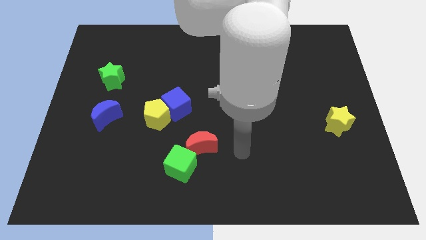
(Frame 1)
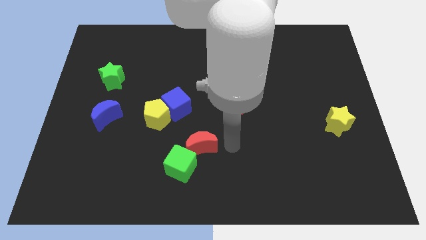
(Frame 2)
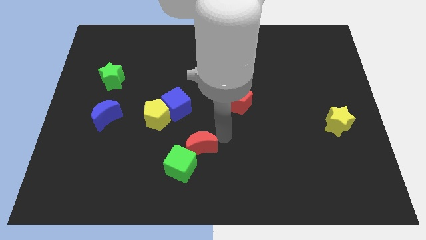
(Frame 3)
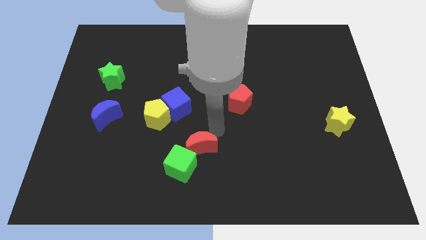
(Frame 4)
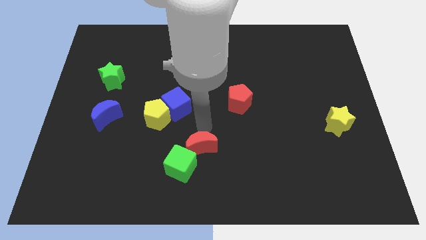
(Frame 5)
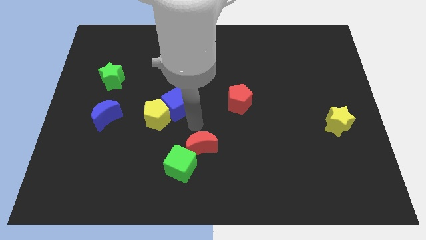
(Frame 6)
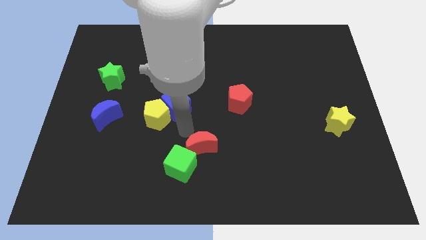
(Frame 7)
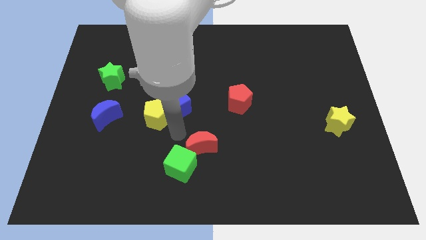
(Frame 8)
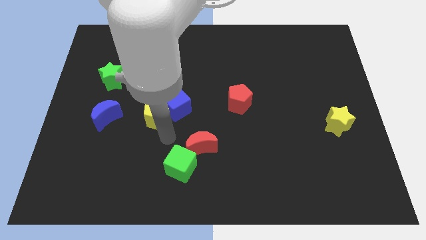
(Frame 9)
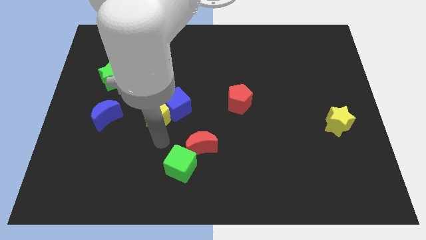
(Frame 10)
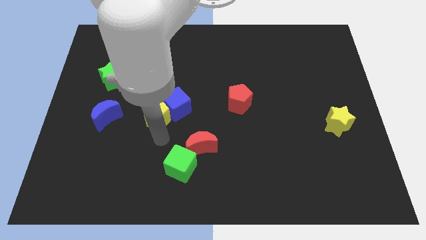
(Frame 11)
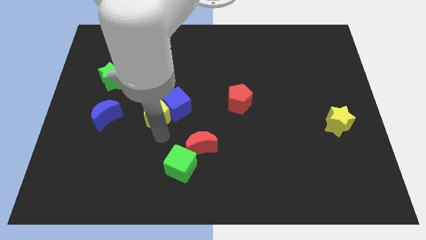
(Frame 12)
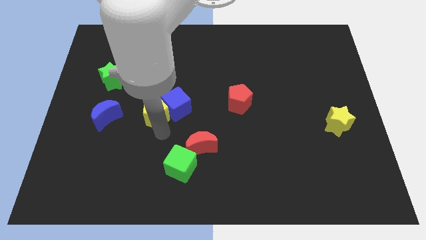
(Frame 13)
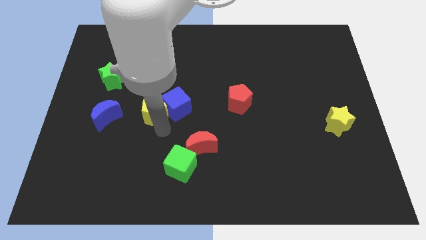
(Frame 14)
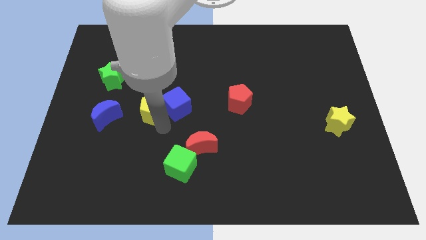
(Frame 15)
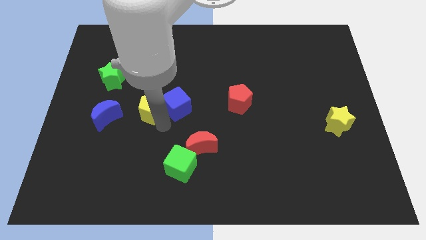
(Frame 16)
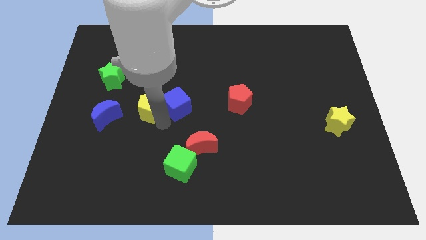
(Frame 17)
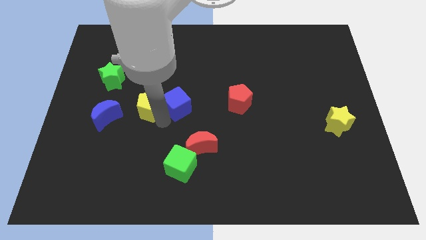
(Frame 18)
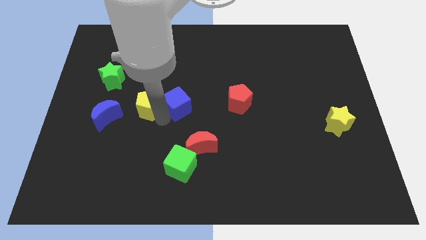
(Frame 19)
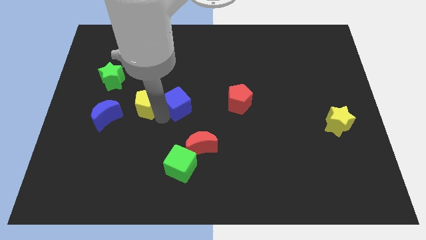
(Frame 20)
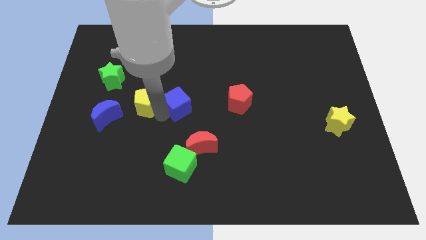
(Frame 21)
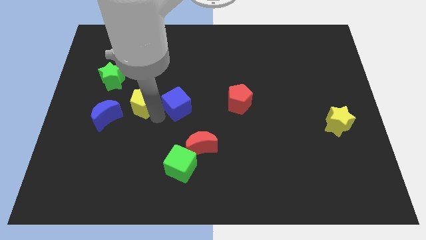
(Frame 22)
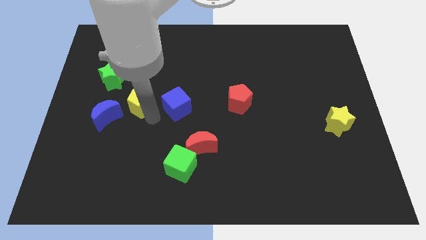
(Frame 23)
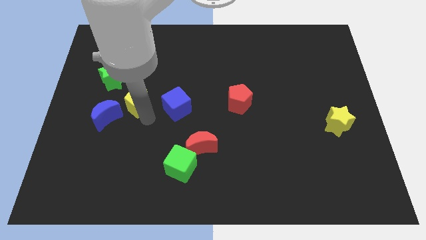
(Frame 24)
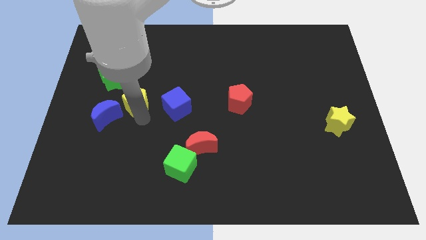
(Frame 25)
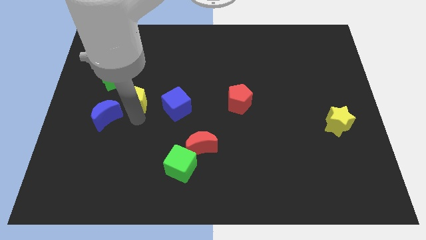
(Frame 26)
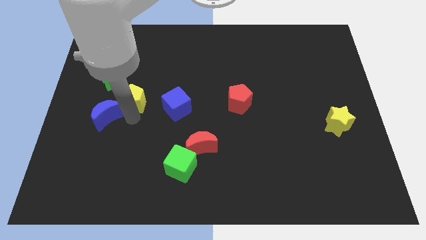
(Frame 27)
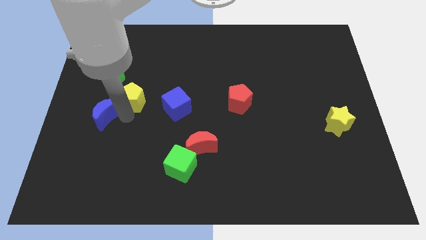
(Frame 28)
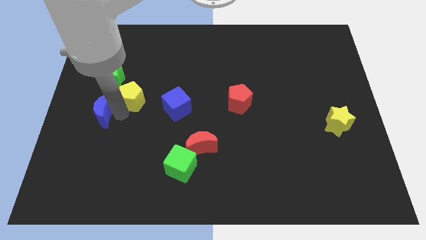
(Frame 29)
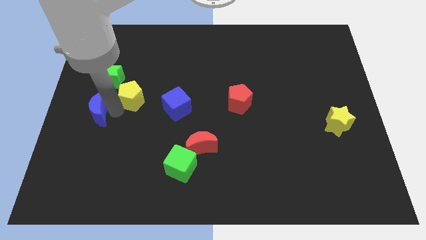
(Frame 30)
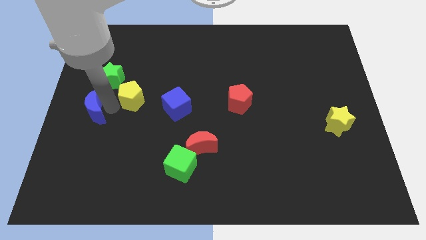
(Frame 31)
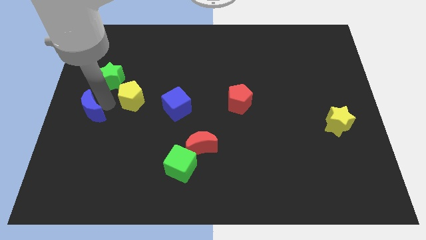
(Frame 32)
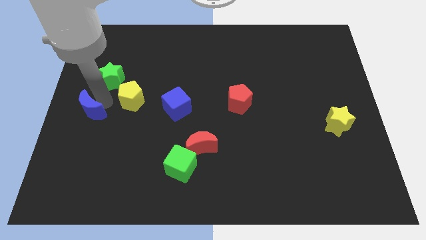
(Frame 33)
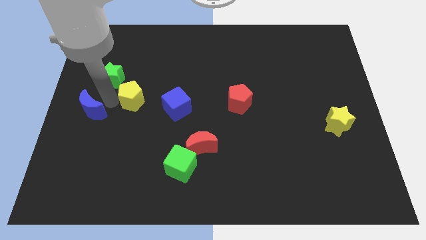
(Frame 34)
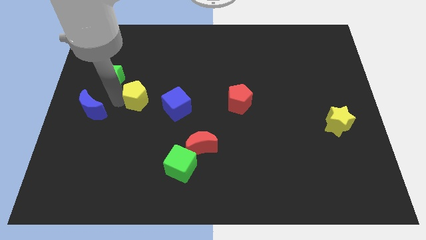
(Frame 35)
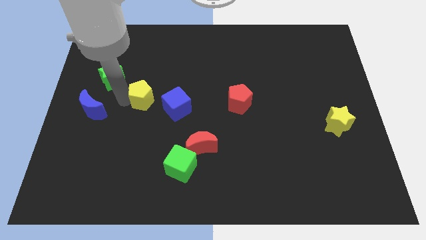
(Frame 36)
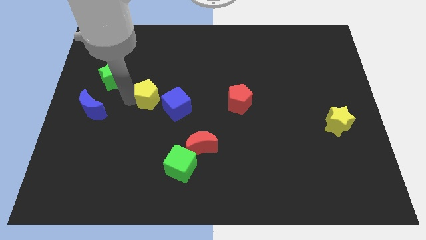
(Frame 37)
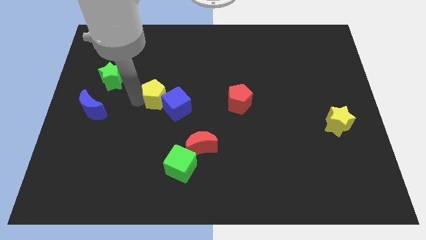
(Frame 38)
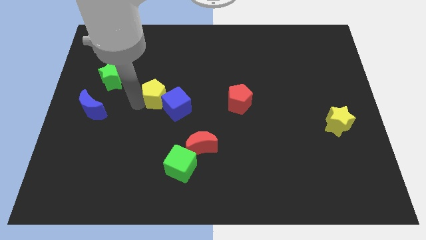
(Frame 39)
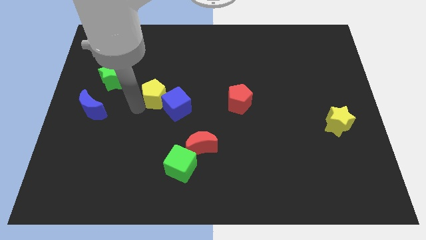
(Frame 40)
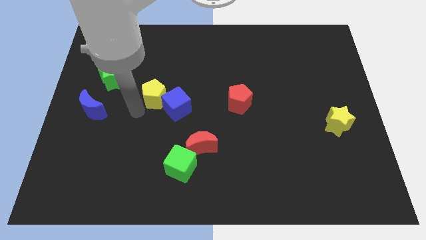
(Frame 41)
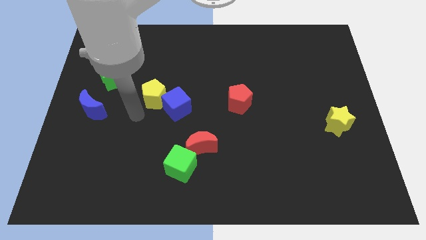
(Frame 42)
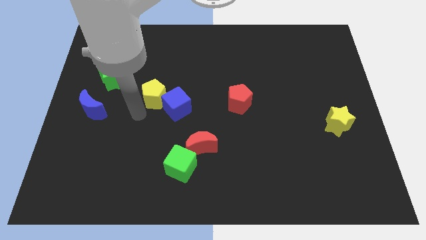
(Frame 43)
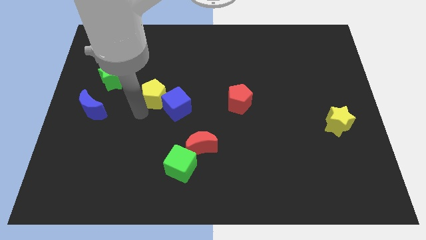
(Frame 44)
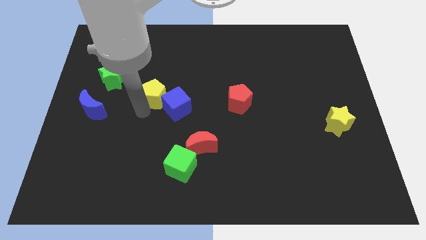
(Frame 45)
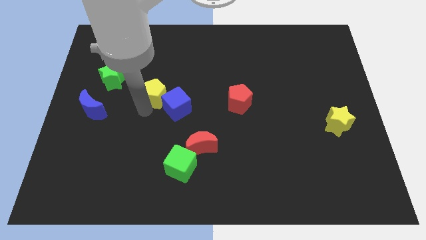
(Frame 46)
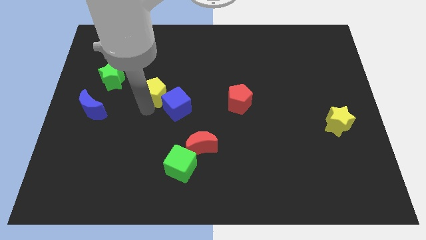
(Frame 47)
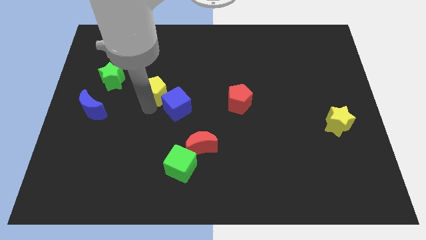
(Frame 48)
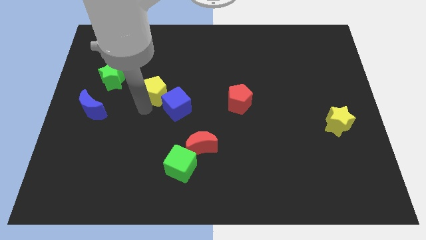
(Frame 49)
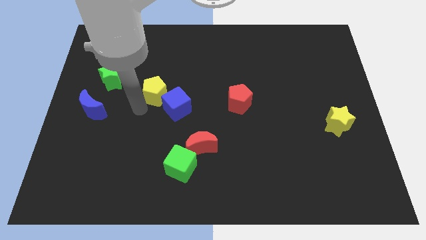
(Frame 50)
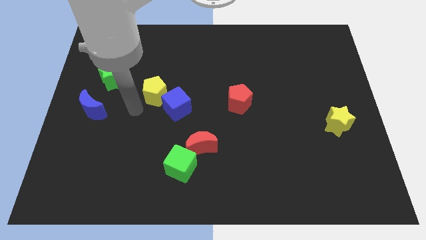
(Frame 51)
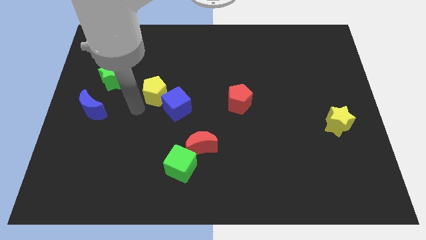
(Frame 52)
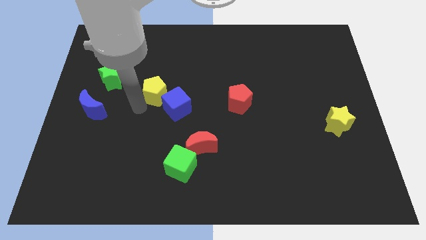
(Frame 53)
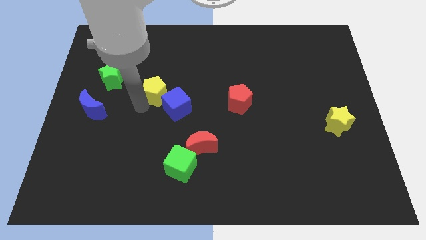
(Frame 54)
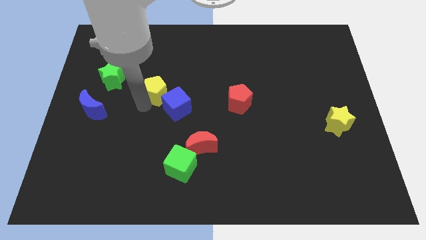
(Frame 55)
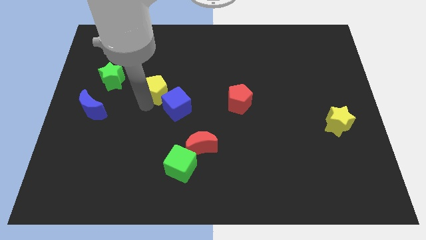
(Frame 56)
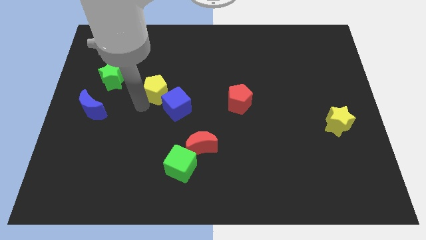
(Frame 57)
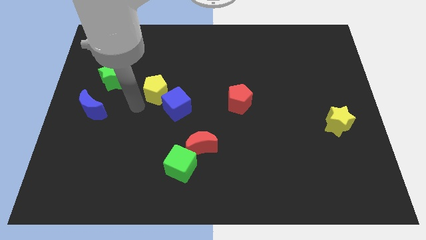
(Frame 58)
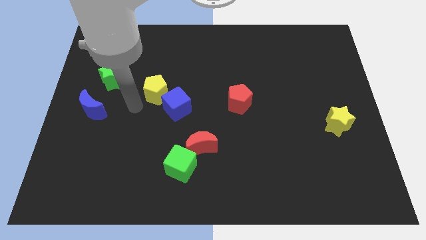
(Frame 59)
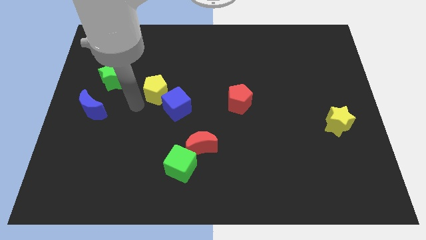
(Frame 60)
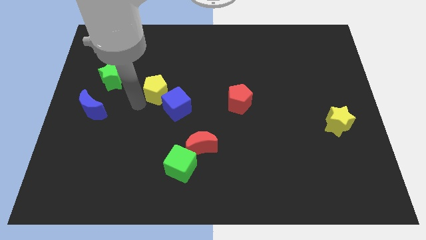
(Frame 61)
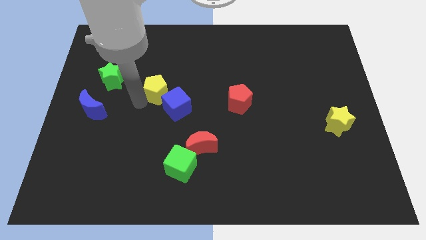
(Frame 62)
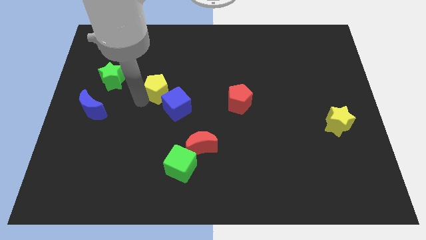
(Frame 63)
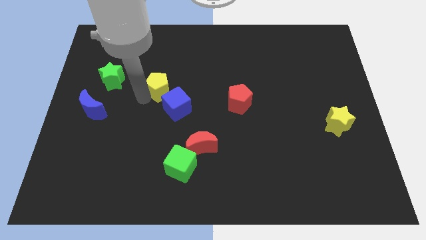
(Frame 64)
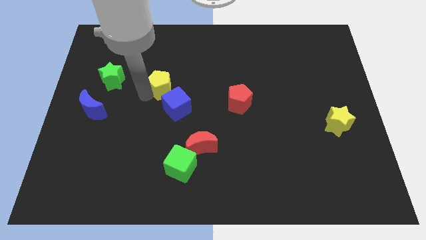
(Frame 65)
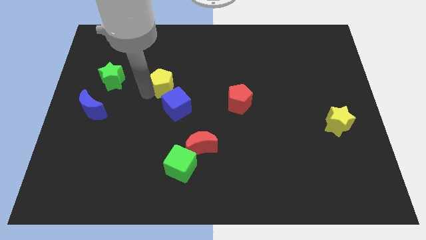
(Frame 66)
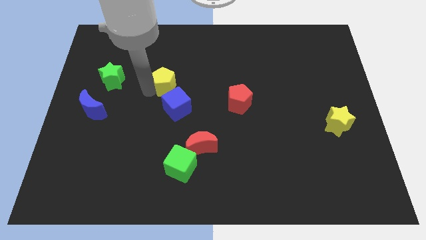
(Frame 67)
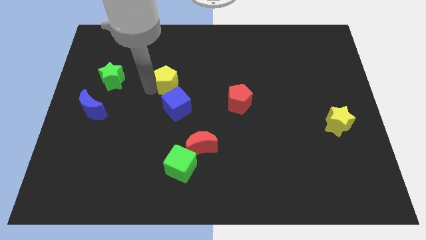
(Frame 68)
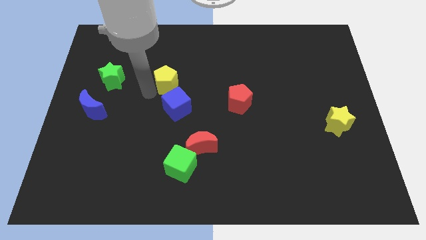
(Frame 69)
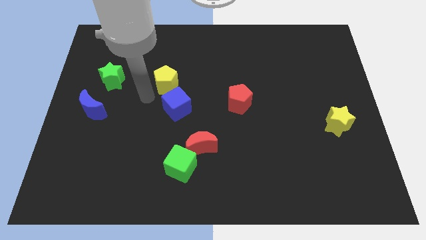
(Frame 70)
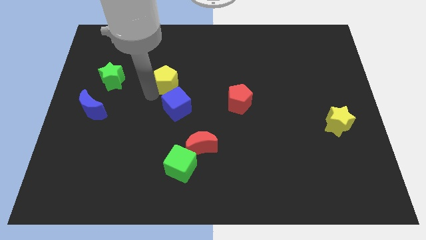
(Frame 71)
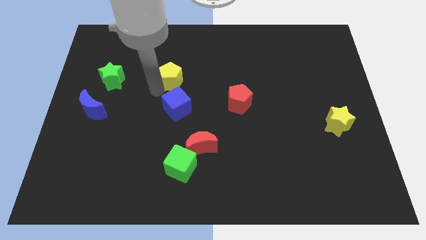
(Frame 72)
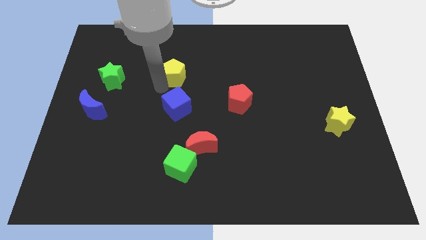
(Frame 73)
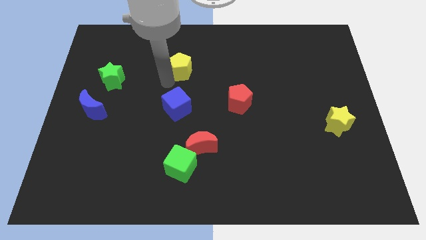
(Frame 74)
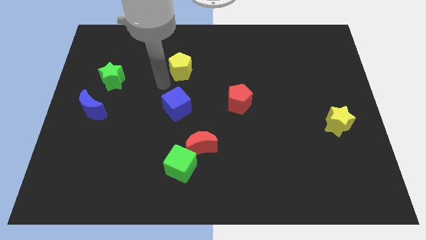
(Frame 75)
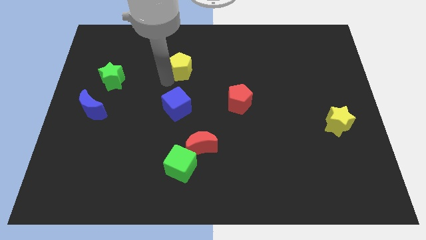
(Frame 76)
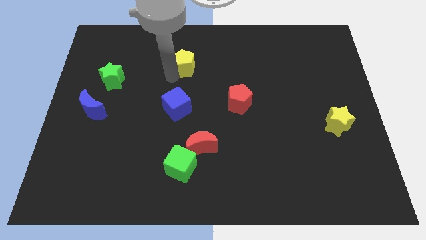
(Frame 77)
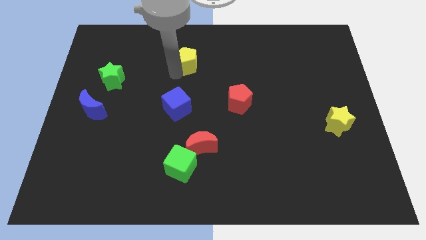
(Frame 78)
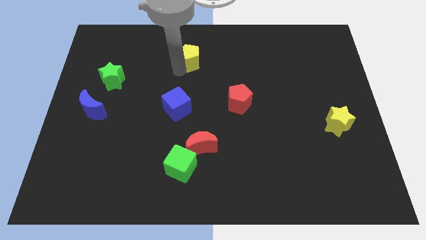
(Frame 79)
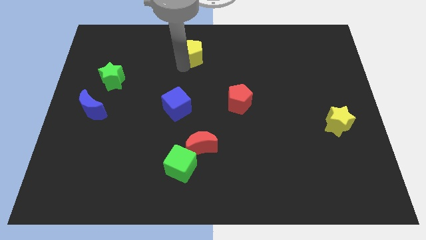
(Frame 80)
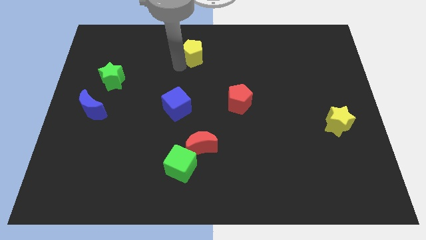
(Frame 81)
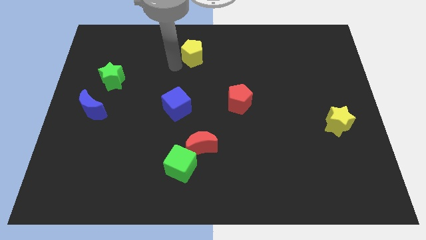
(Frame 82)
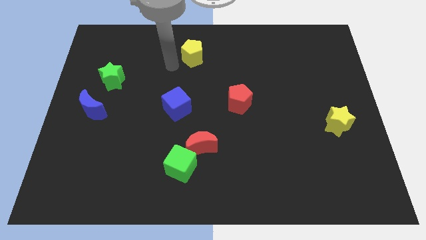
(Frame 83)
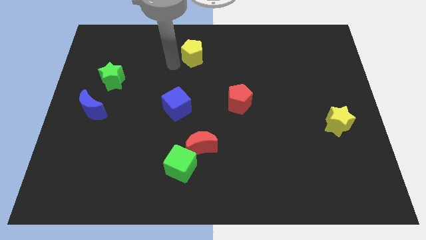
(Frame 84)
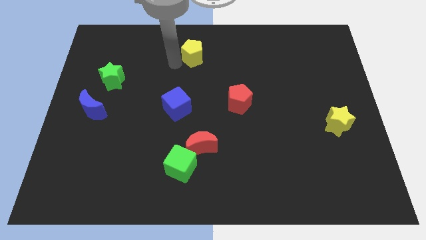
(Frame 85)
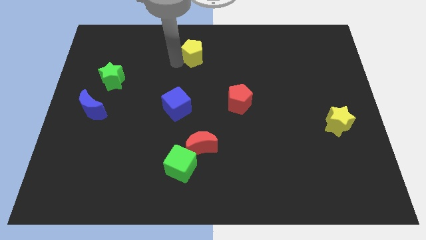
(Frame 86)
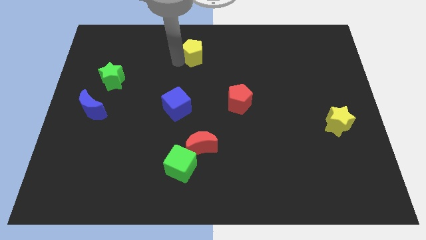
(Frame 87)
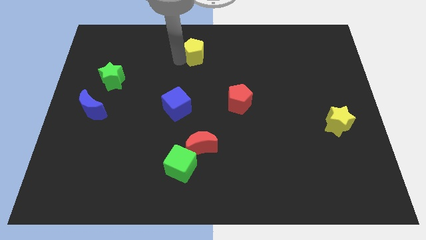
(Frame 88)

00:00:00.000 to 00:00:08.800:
move the yellow pentagon to the top side
